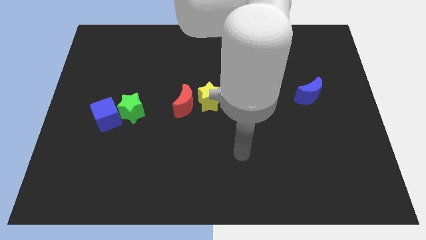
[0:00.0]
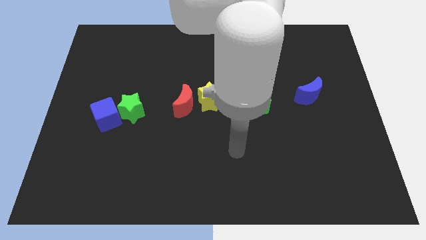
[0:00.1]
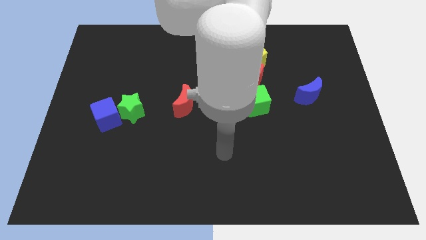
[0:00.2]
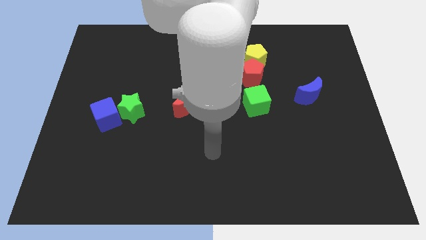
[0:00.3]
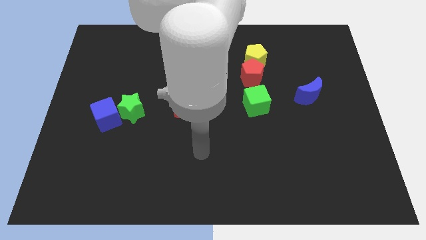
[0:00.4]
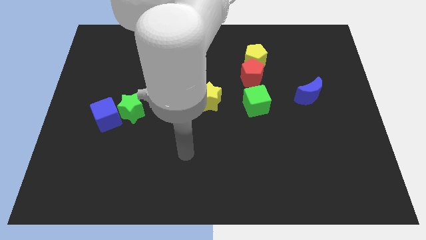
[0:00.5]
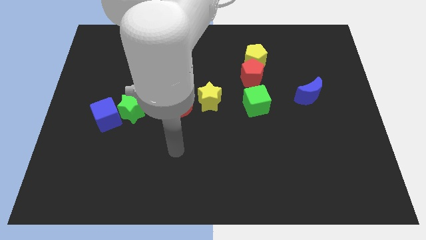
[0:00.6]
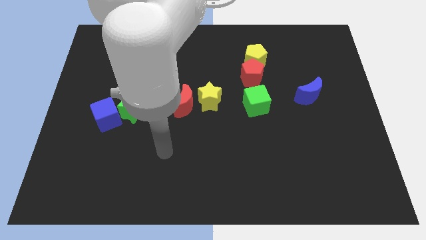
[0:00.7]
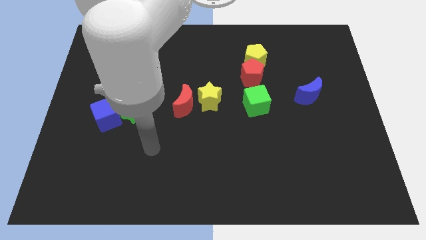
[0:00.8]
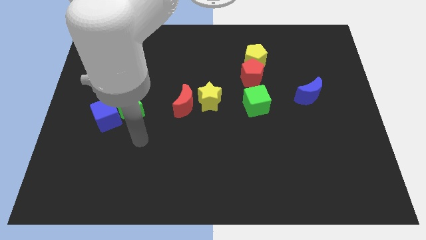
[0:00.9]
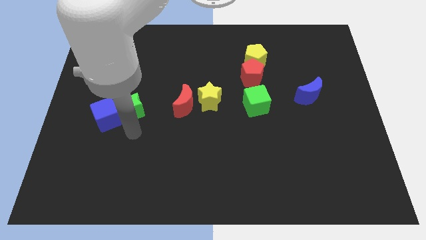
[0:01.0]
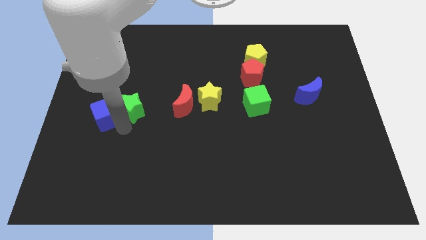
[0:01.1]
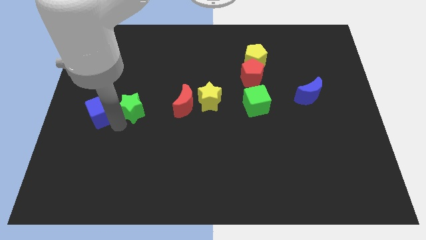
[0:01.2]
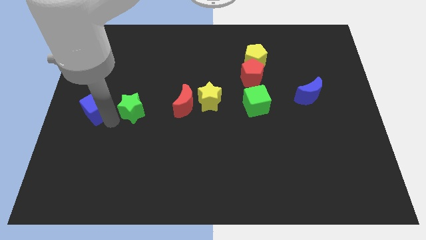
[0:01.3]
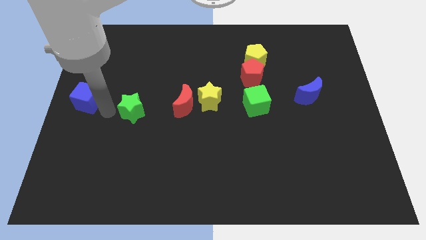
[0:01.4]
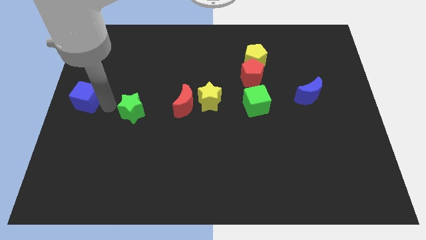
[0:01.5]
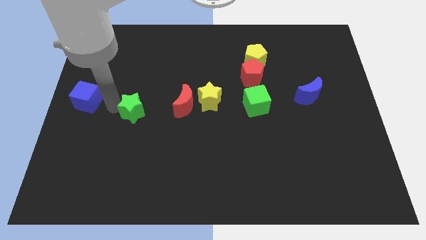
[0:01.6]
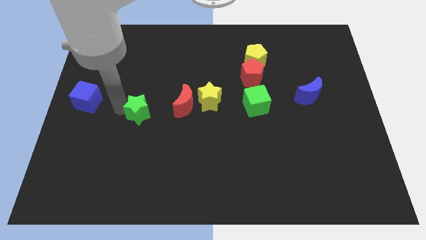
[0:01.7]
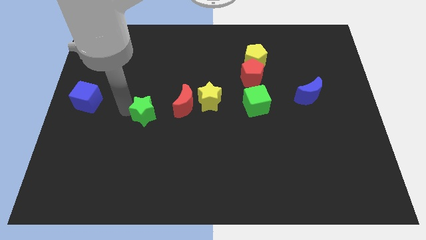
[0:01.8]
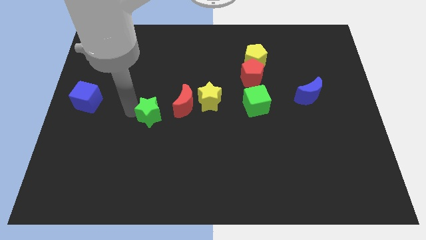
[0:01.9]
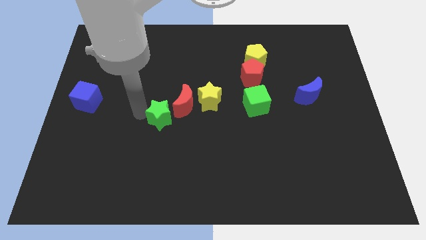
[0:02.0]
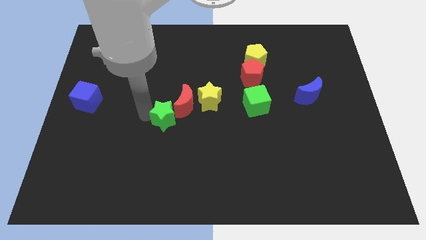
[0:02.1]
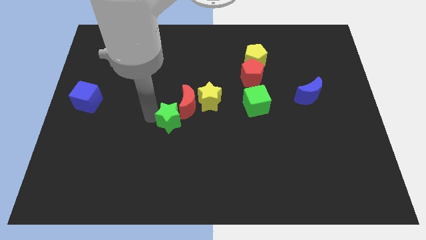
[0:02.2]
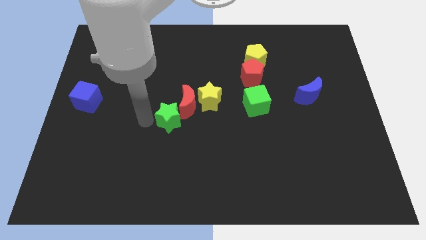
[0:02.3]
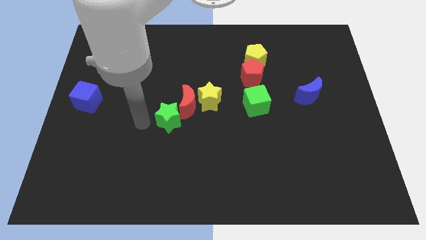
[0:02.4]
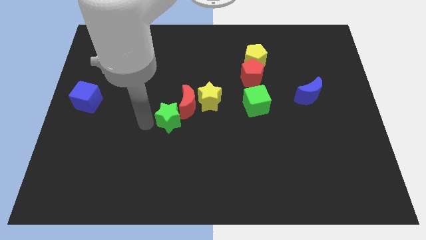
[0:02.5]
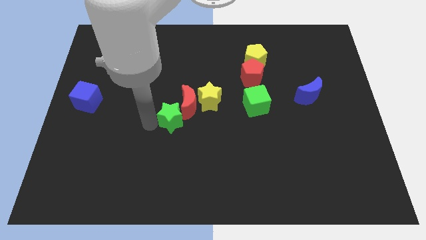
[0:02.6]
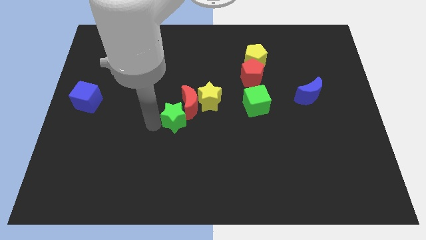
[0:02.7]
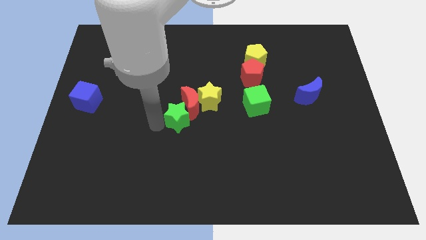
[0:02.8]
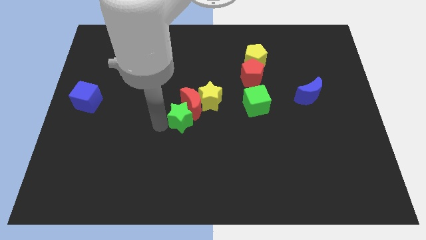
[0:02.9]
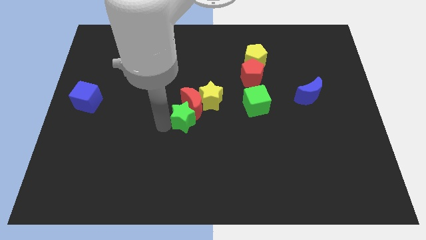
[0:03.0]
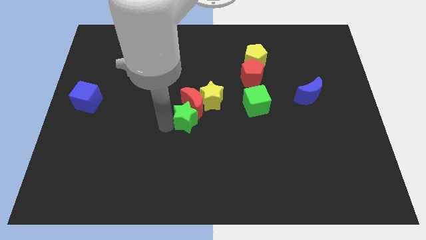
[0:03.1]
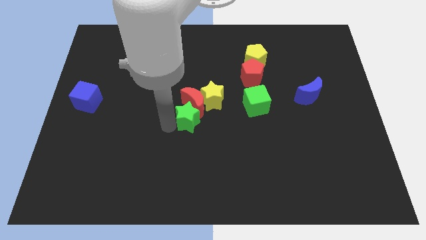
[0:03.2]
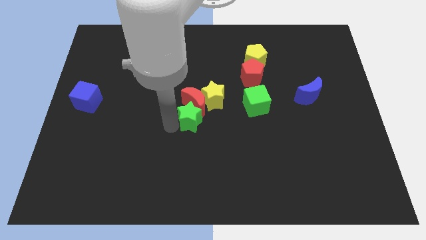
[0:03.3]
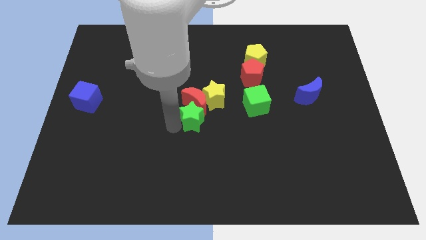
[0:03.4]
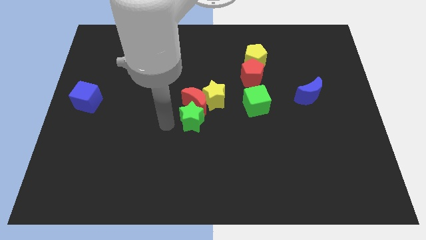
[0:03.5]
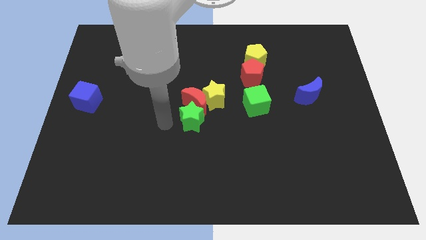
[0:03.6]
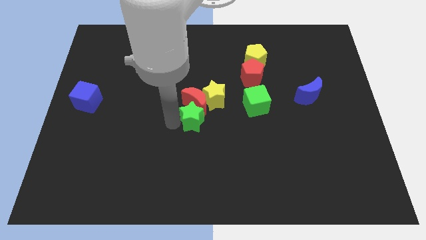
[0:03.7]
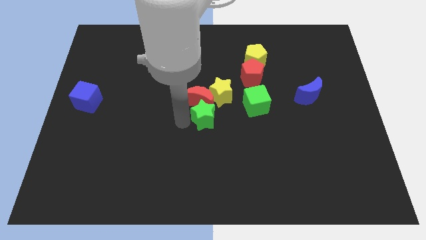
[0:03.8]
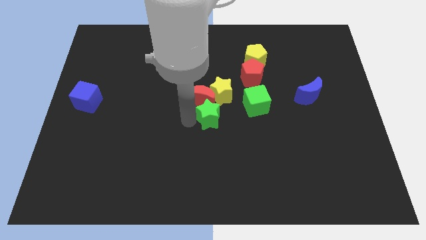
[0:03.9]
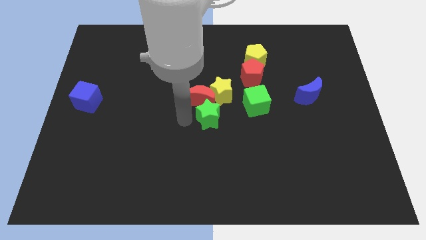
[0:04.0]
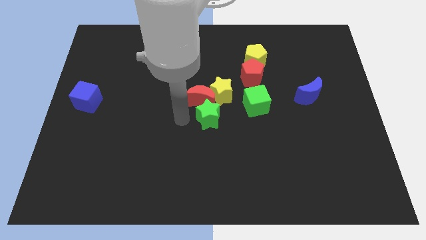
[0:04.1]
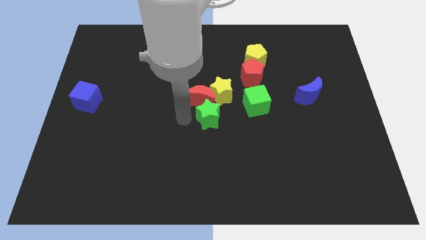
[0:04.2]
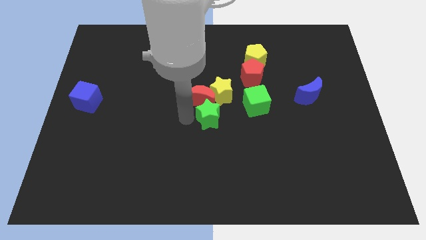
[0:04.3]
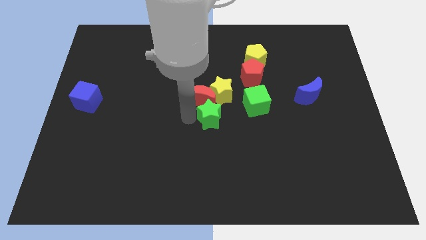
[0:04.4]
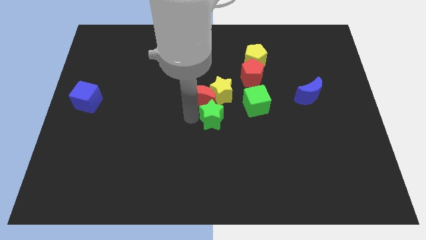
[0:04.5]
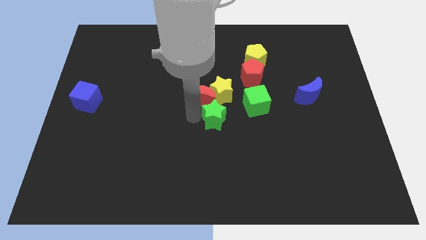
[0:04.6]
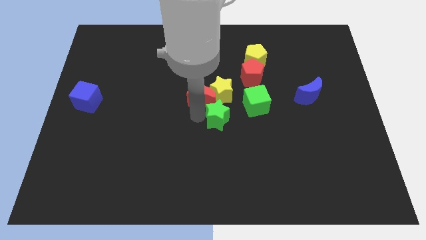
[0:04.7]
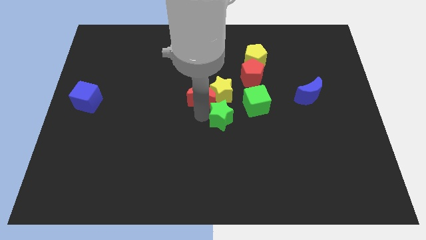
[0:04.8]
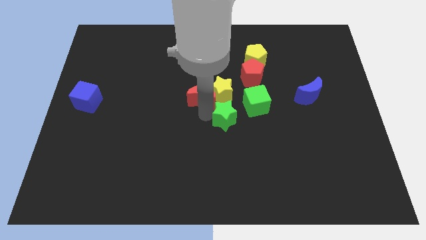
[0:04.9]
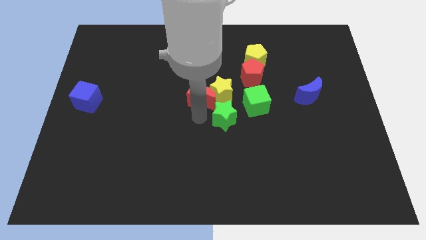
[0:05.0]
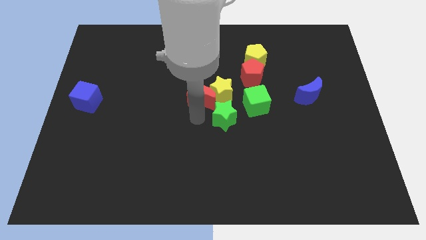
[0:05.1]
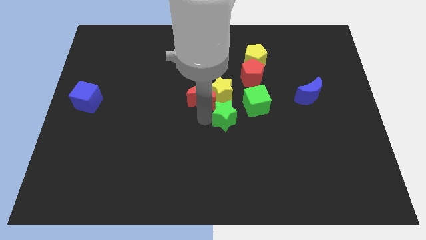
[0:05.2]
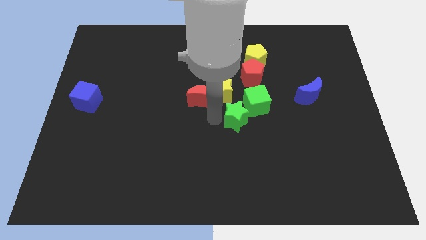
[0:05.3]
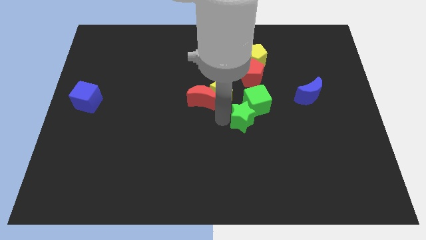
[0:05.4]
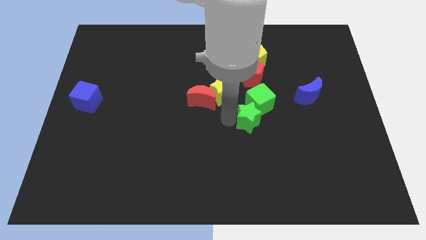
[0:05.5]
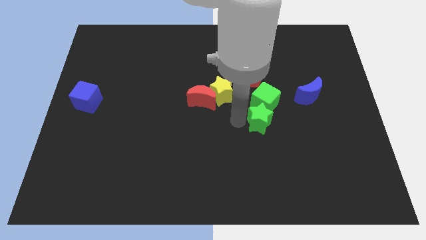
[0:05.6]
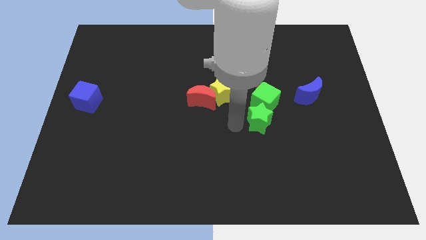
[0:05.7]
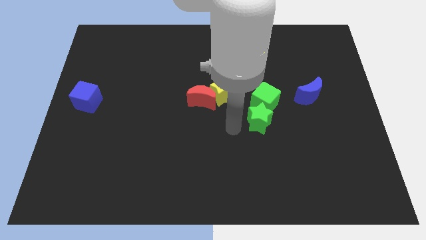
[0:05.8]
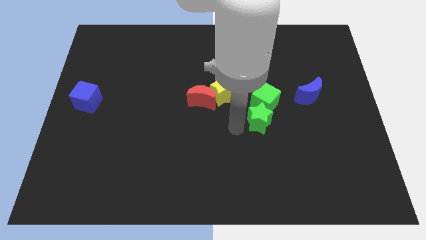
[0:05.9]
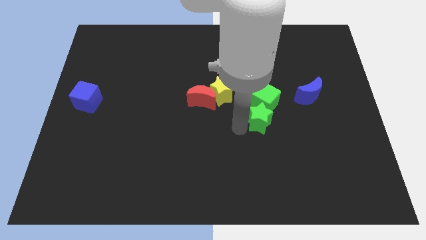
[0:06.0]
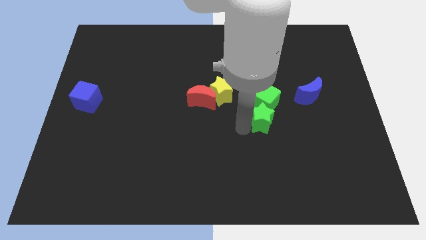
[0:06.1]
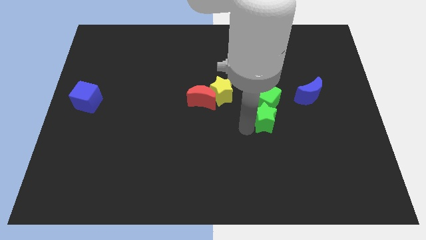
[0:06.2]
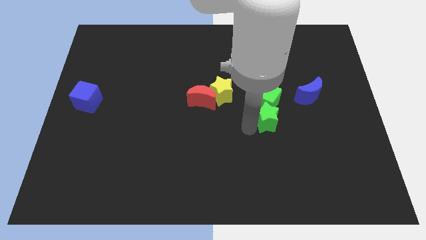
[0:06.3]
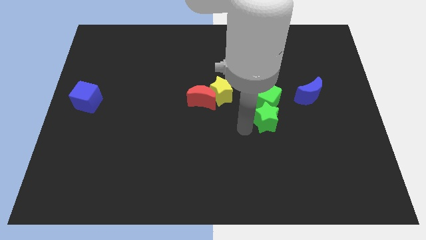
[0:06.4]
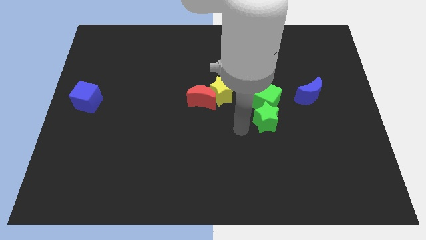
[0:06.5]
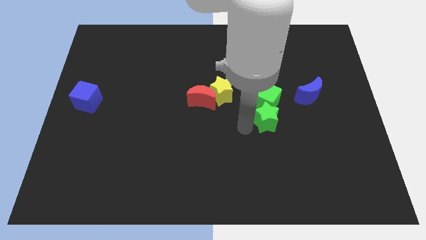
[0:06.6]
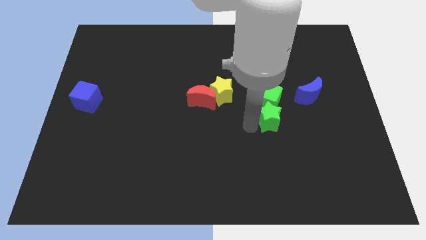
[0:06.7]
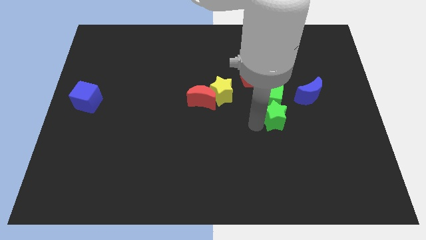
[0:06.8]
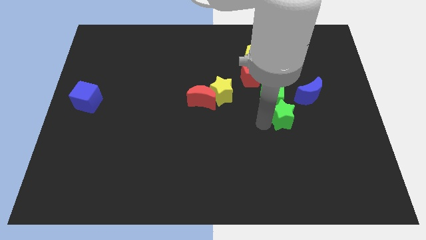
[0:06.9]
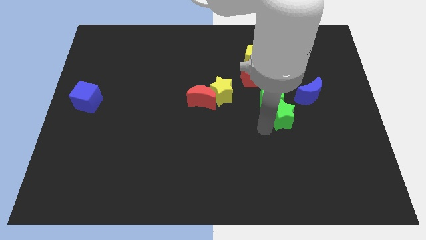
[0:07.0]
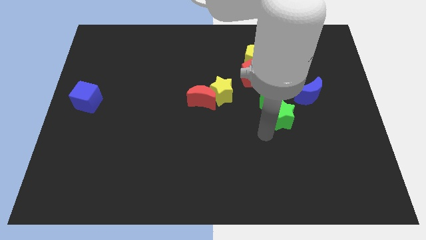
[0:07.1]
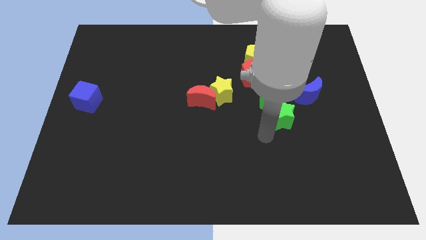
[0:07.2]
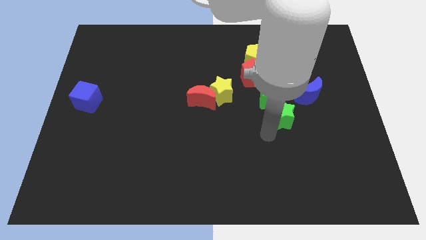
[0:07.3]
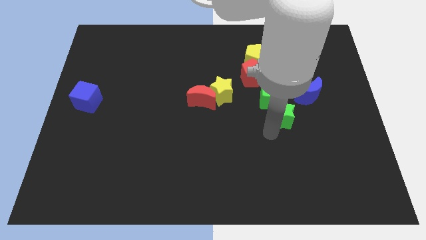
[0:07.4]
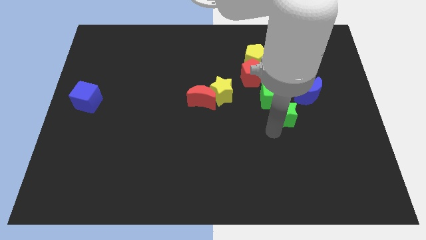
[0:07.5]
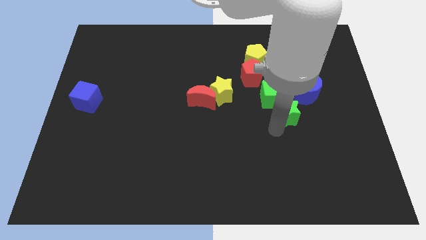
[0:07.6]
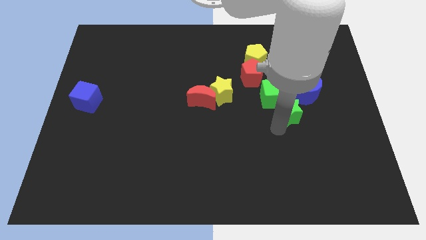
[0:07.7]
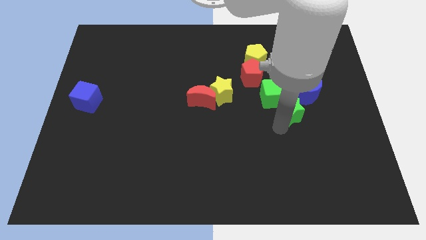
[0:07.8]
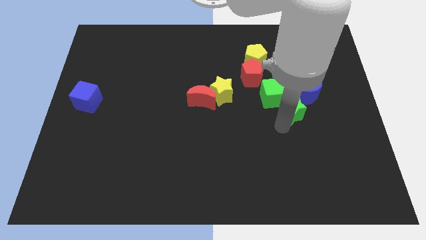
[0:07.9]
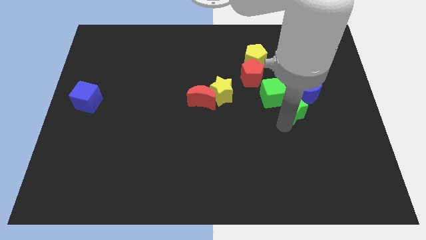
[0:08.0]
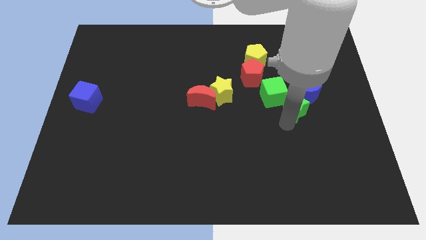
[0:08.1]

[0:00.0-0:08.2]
move the green star next to the blue moon
